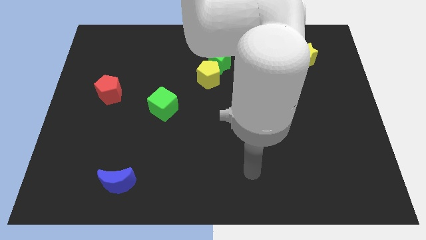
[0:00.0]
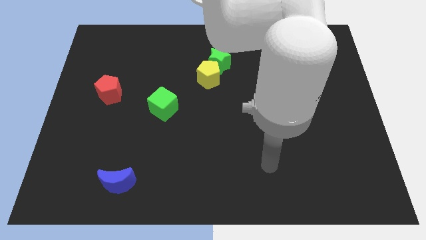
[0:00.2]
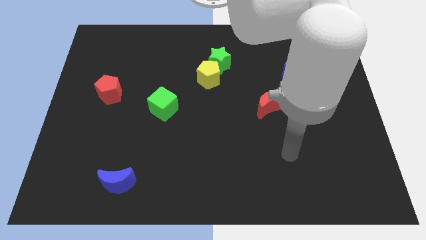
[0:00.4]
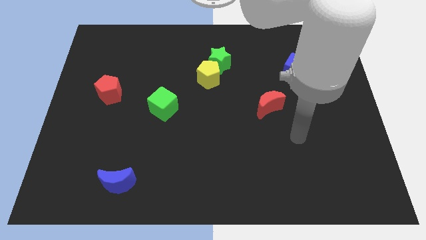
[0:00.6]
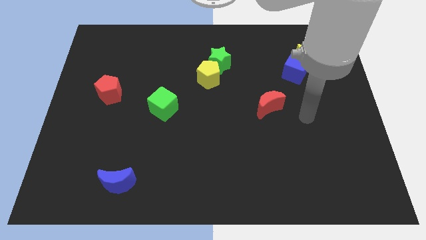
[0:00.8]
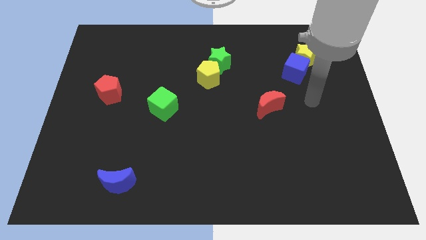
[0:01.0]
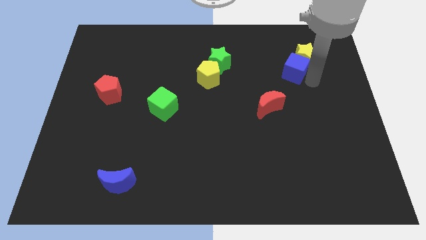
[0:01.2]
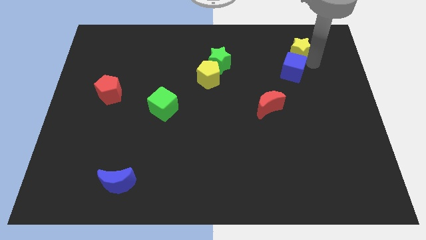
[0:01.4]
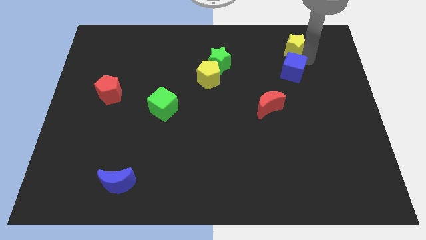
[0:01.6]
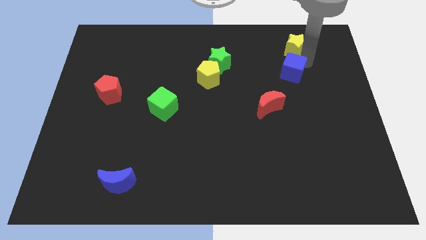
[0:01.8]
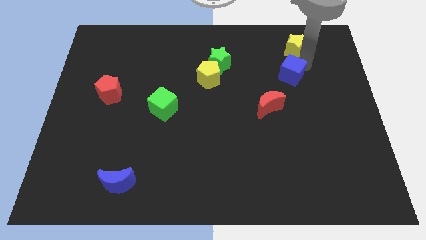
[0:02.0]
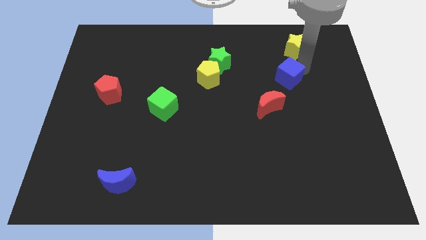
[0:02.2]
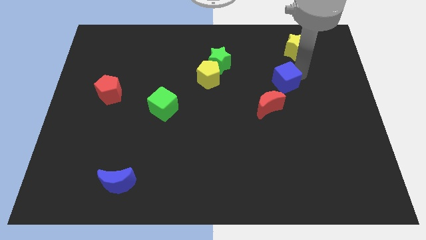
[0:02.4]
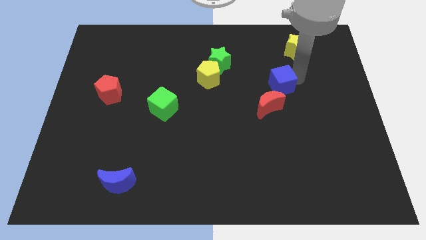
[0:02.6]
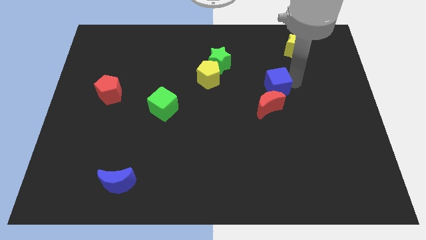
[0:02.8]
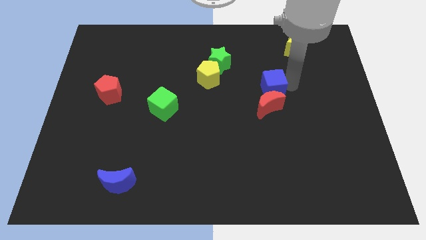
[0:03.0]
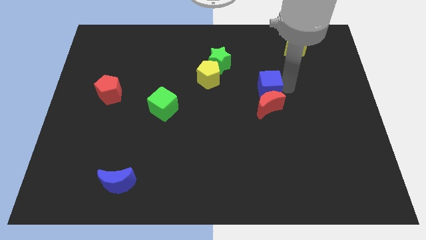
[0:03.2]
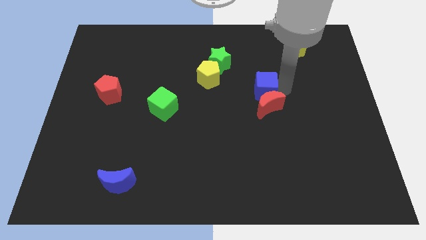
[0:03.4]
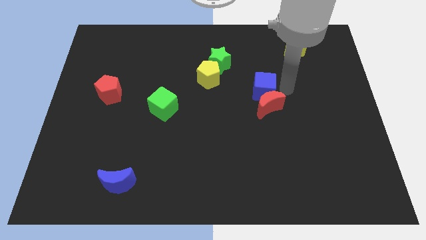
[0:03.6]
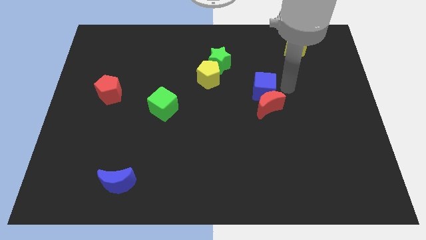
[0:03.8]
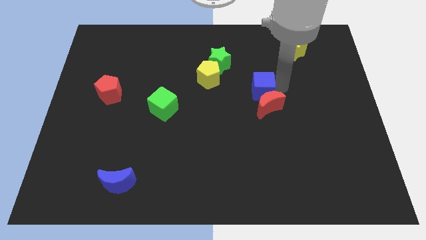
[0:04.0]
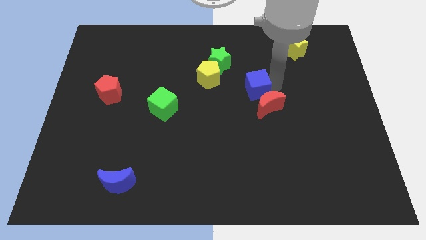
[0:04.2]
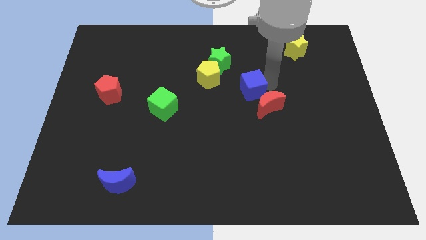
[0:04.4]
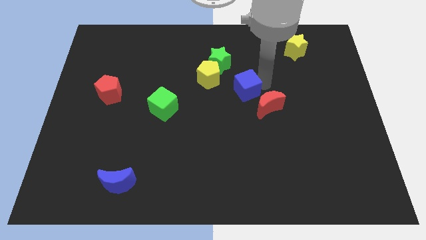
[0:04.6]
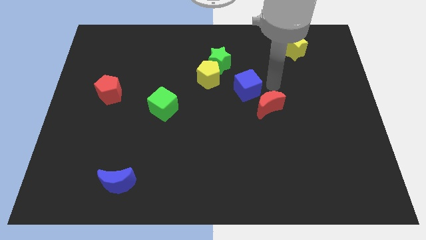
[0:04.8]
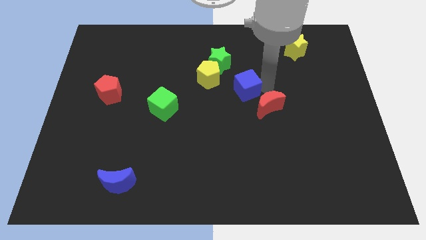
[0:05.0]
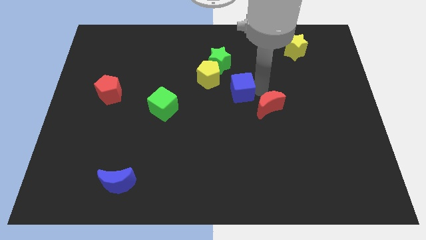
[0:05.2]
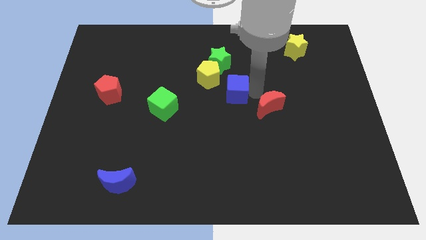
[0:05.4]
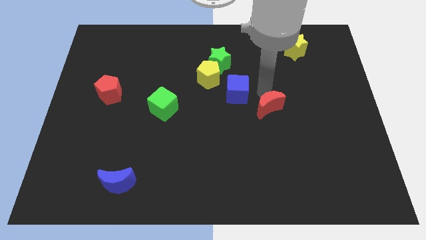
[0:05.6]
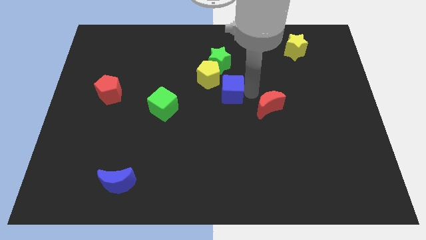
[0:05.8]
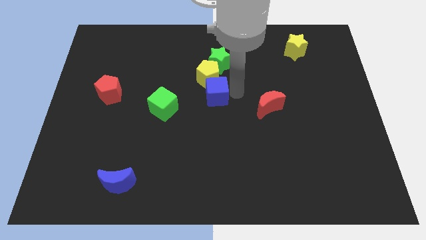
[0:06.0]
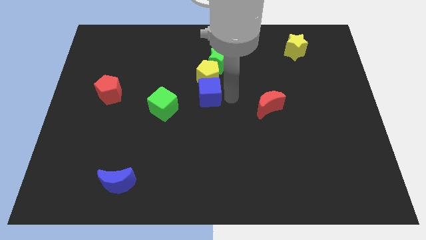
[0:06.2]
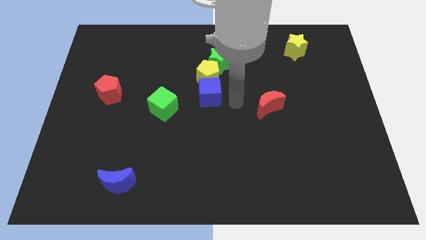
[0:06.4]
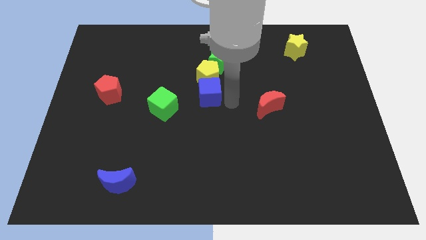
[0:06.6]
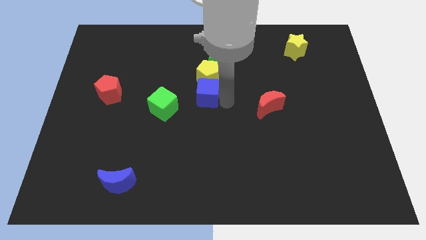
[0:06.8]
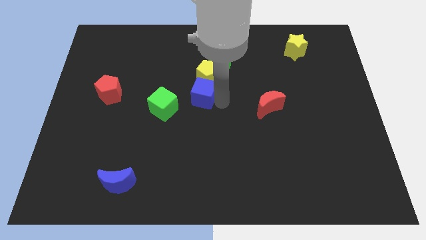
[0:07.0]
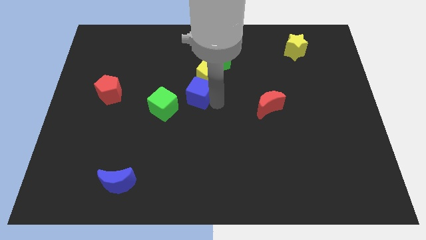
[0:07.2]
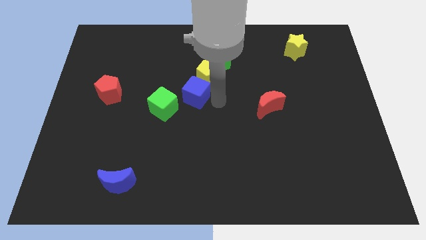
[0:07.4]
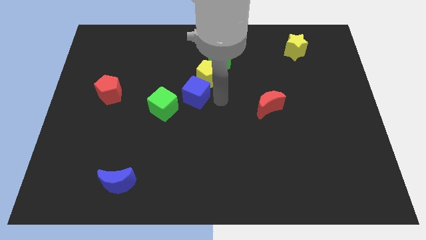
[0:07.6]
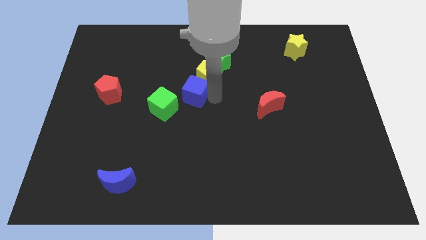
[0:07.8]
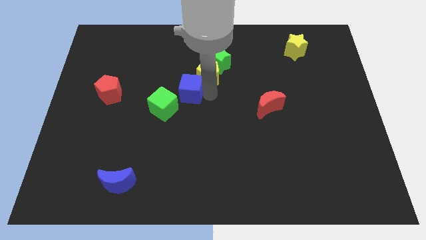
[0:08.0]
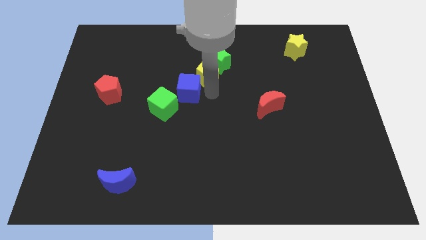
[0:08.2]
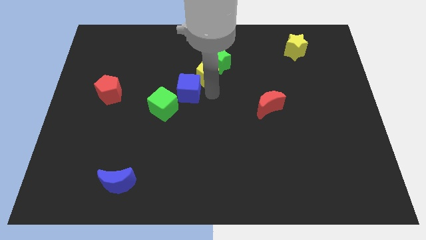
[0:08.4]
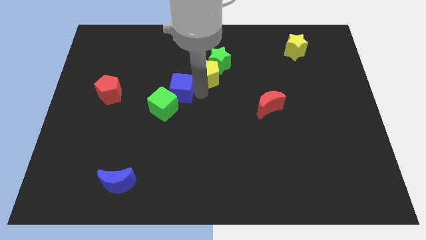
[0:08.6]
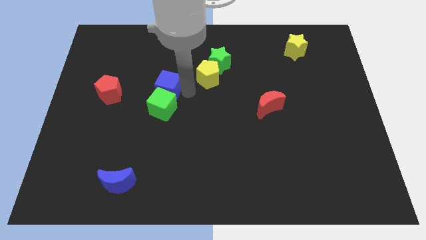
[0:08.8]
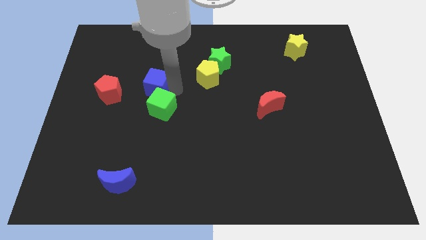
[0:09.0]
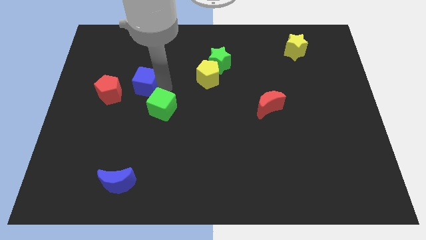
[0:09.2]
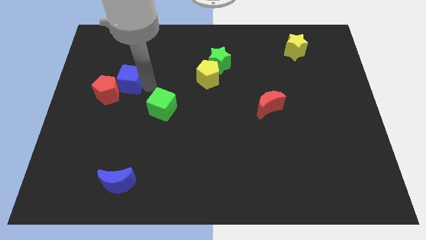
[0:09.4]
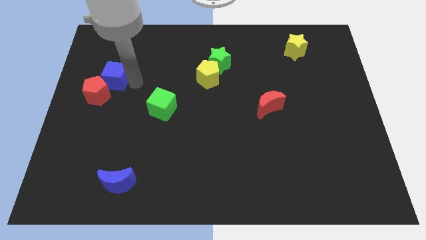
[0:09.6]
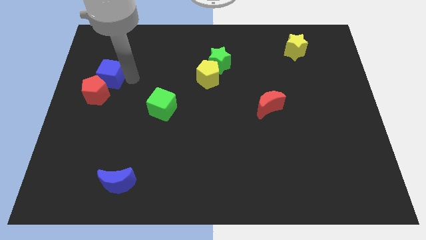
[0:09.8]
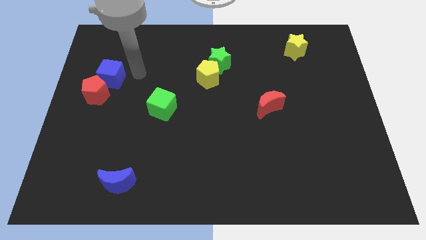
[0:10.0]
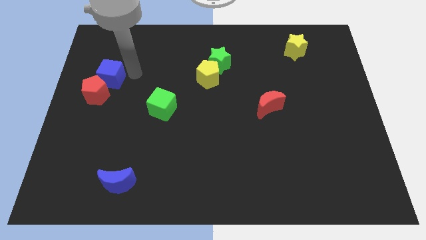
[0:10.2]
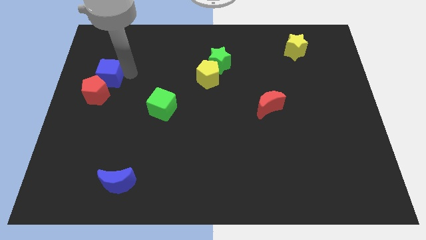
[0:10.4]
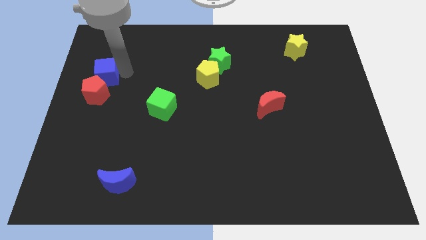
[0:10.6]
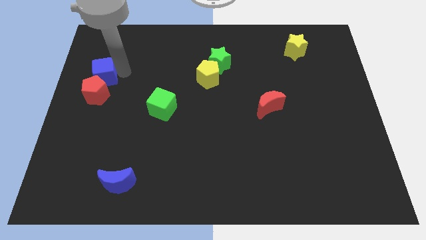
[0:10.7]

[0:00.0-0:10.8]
put the blue cube to the left side

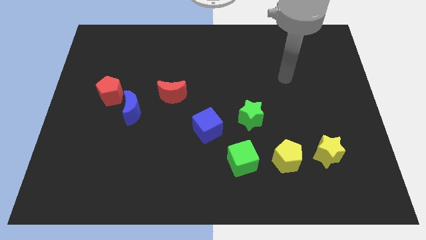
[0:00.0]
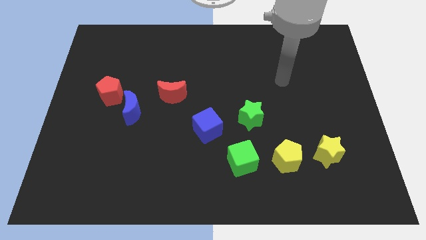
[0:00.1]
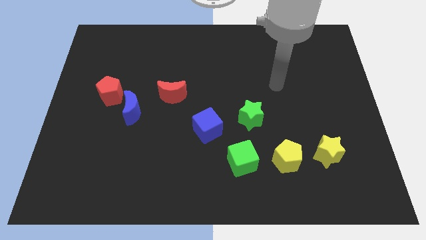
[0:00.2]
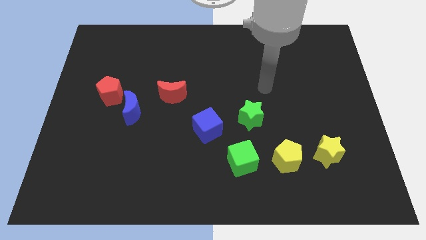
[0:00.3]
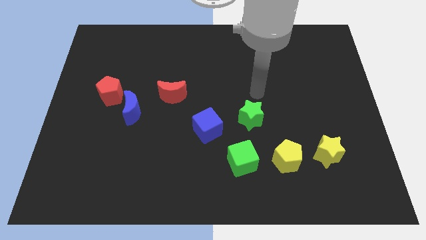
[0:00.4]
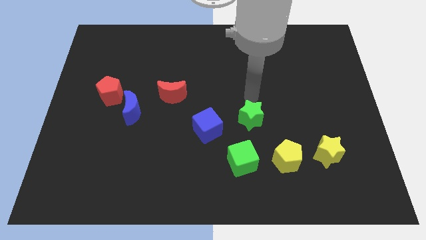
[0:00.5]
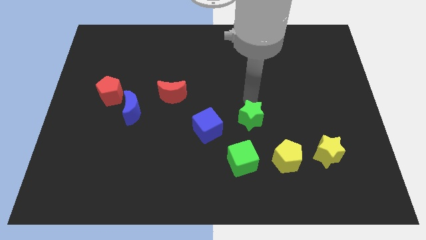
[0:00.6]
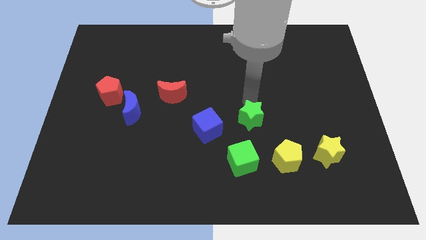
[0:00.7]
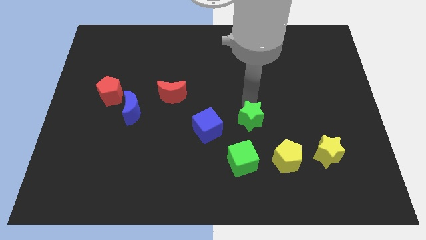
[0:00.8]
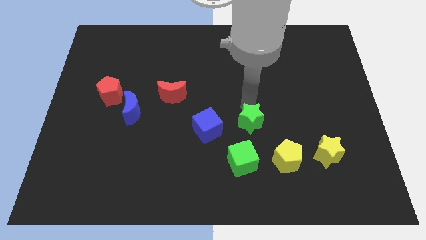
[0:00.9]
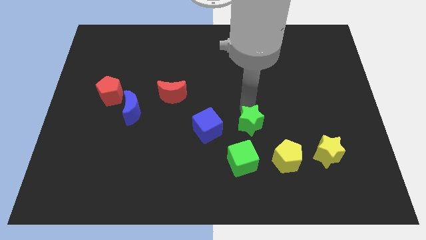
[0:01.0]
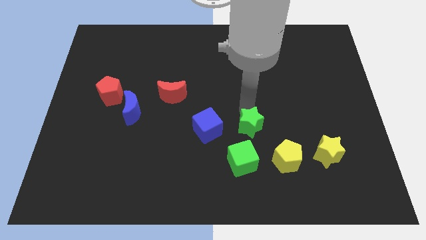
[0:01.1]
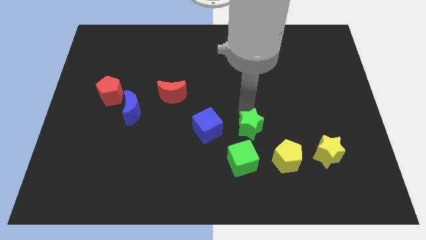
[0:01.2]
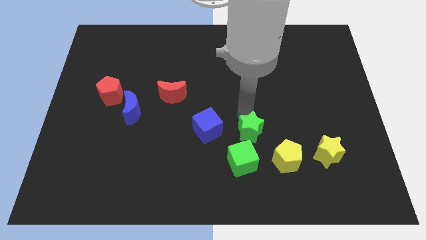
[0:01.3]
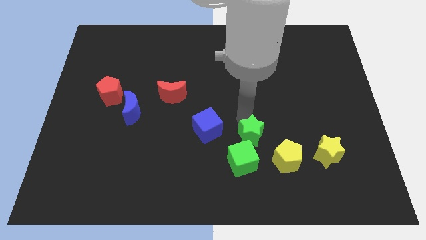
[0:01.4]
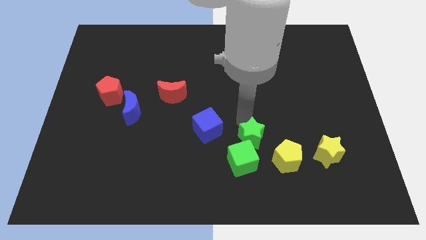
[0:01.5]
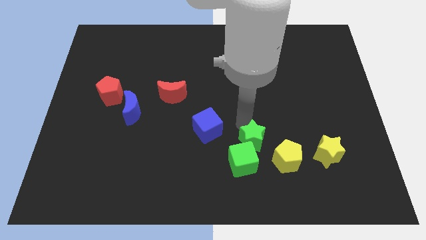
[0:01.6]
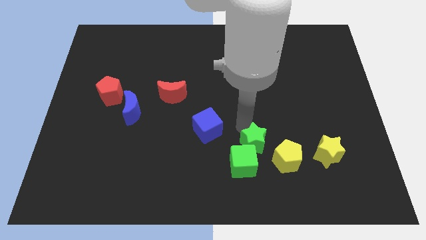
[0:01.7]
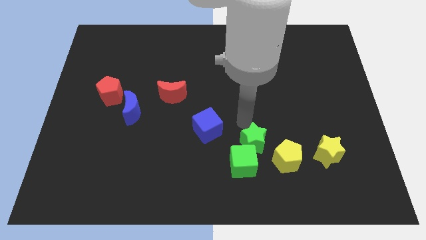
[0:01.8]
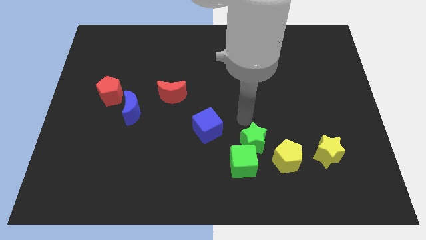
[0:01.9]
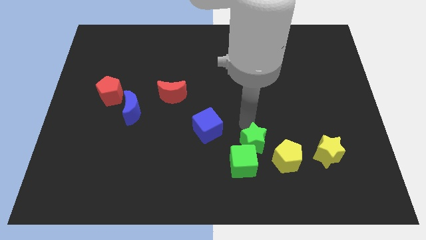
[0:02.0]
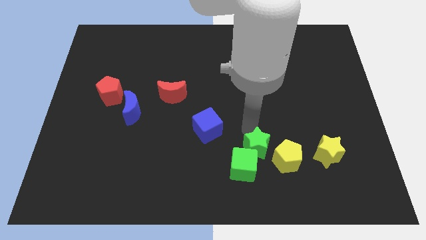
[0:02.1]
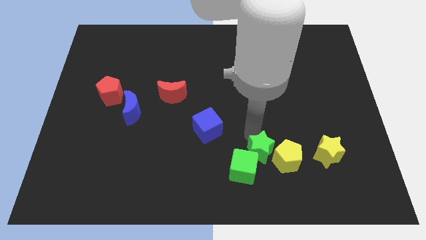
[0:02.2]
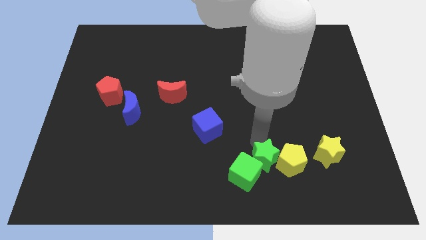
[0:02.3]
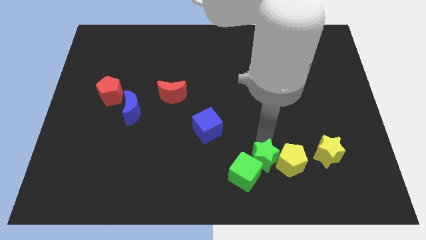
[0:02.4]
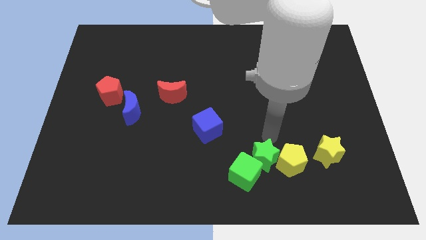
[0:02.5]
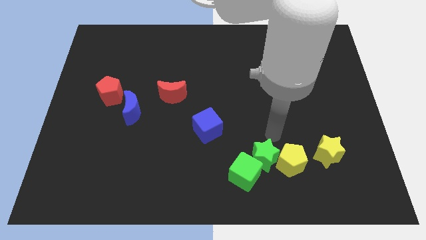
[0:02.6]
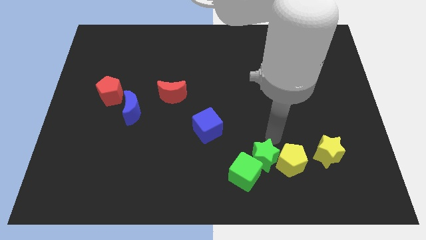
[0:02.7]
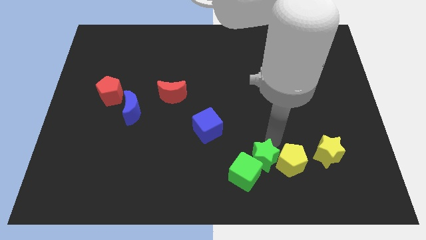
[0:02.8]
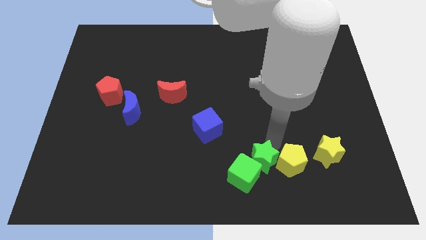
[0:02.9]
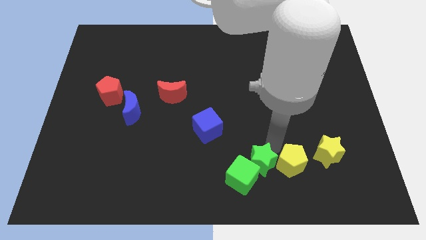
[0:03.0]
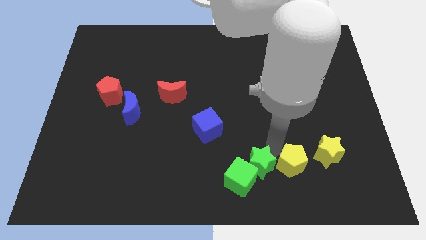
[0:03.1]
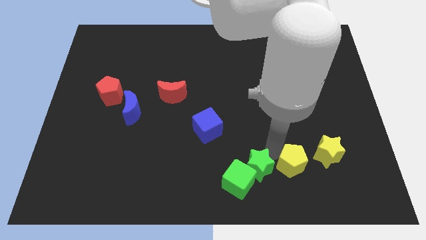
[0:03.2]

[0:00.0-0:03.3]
move the green star to the bottom
